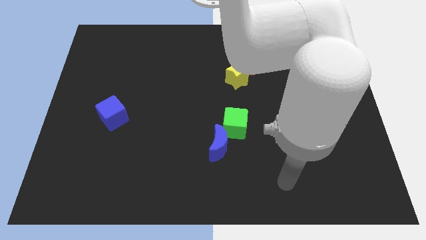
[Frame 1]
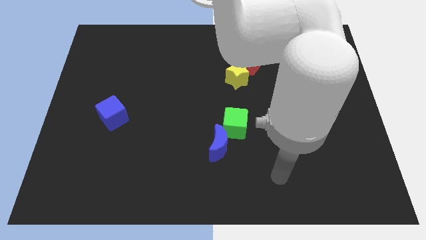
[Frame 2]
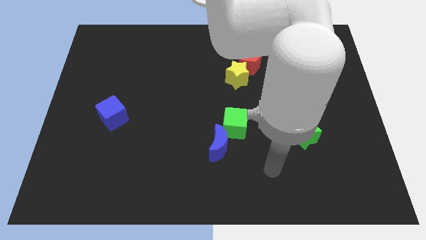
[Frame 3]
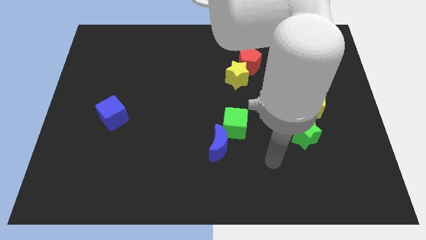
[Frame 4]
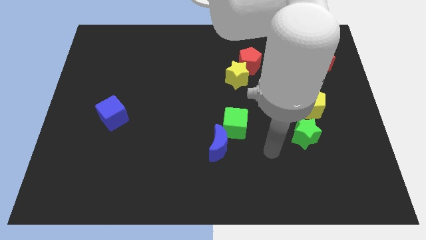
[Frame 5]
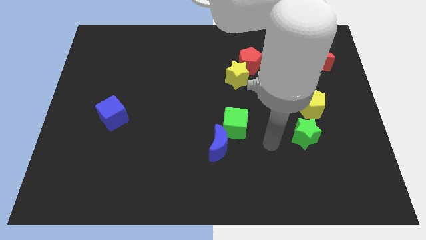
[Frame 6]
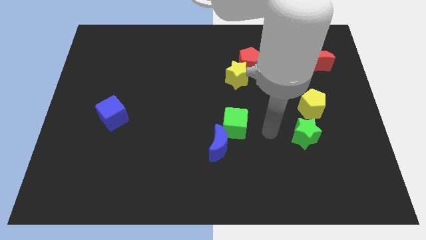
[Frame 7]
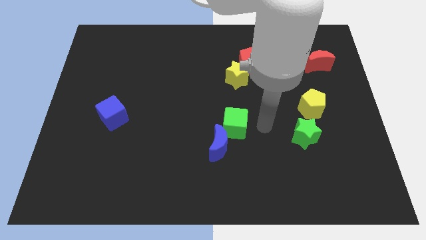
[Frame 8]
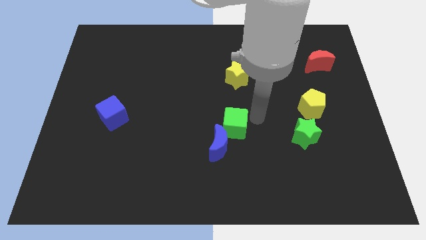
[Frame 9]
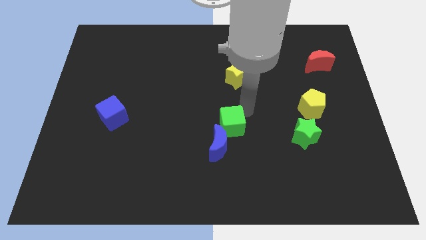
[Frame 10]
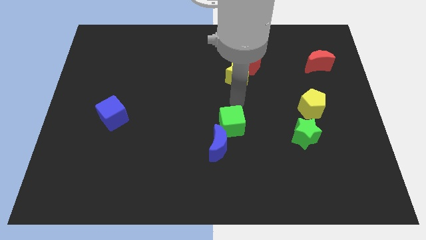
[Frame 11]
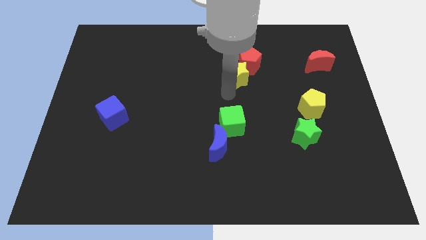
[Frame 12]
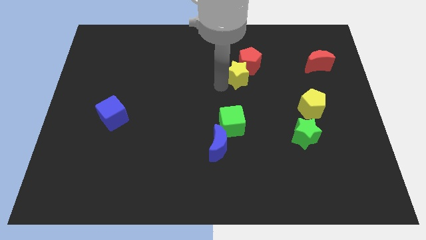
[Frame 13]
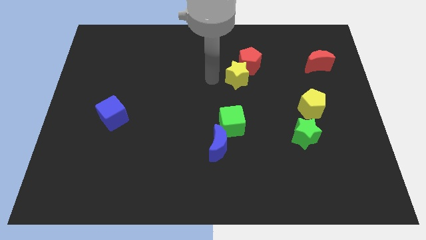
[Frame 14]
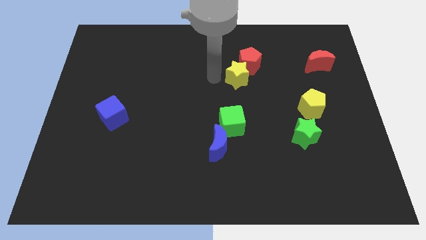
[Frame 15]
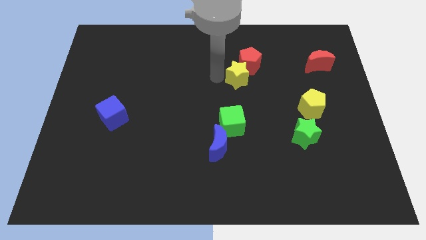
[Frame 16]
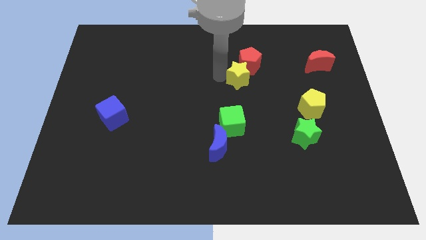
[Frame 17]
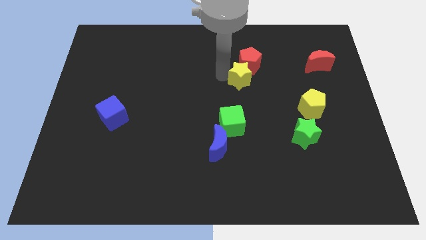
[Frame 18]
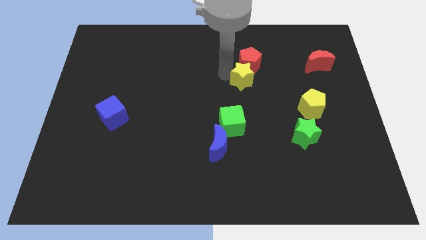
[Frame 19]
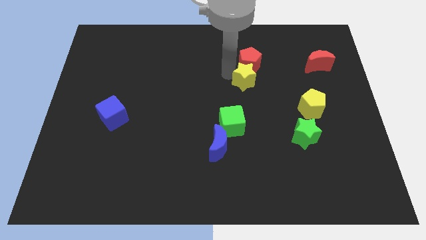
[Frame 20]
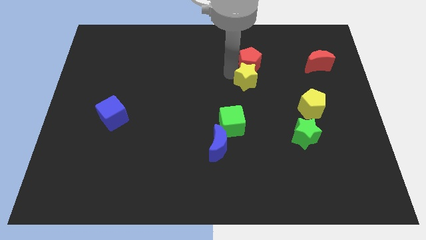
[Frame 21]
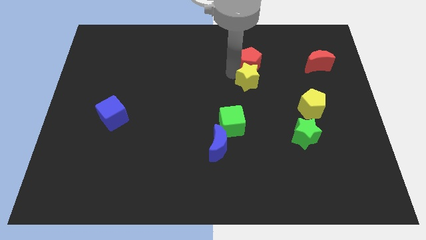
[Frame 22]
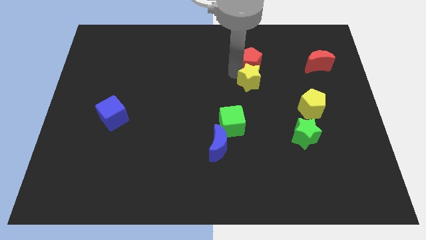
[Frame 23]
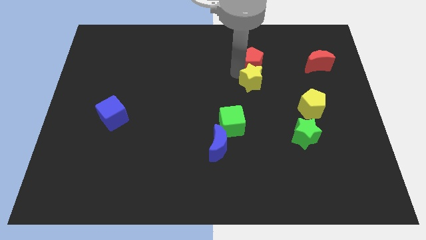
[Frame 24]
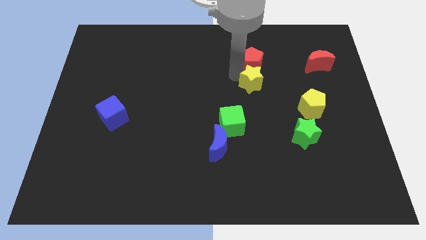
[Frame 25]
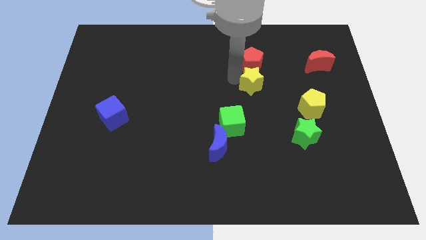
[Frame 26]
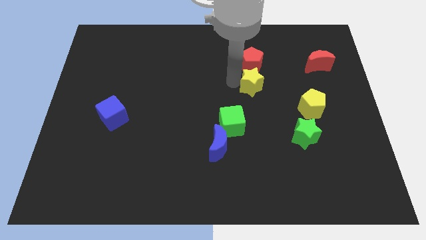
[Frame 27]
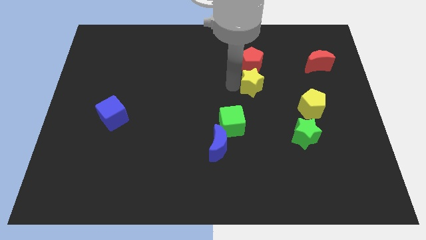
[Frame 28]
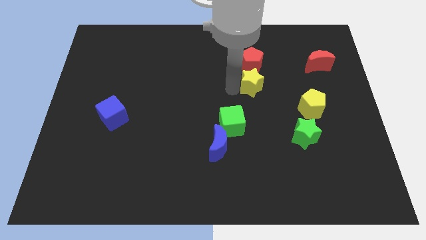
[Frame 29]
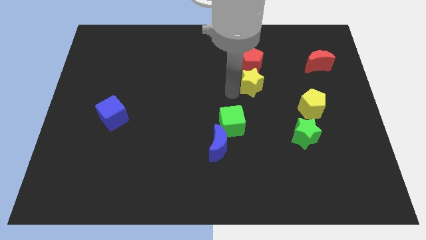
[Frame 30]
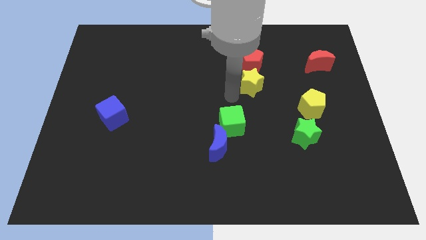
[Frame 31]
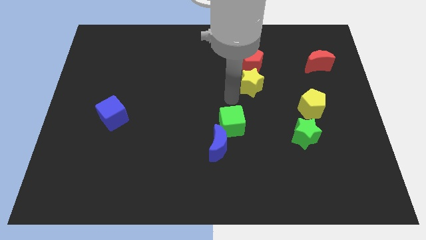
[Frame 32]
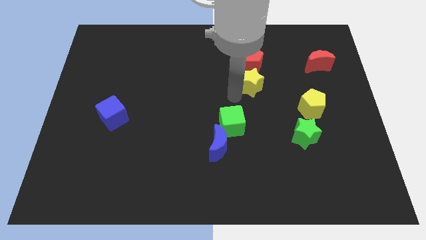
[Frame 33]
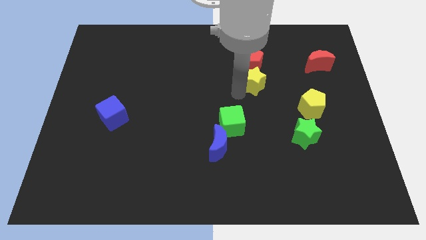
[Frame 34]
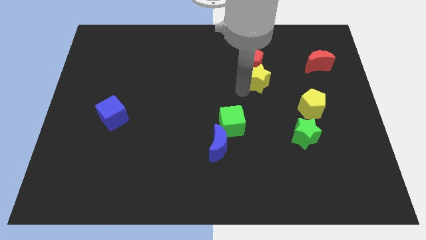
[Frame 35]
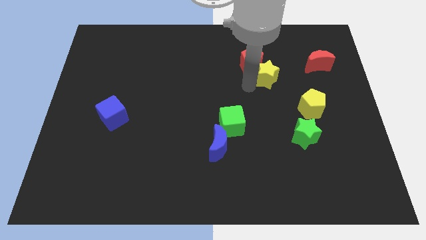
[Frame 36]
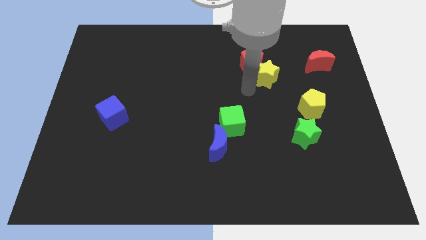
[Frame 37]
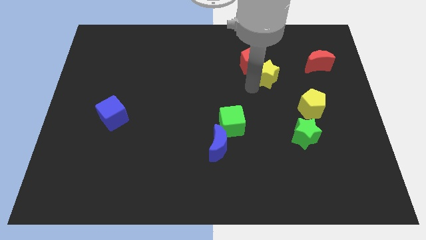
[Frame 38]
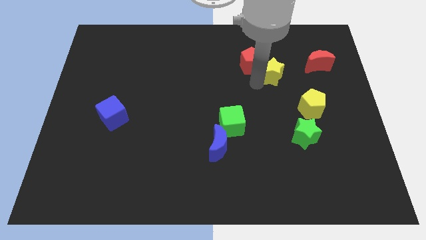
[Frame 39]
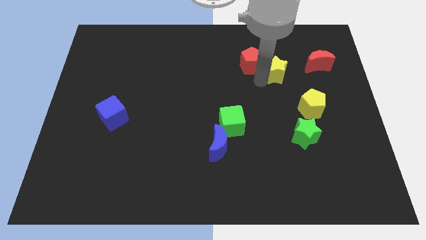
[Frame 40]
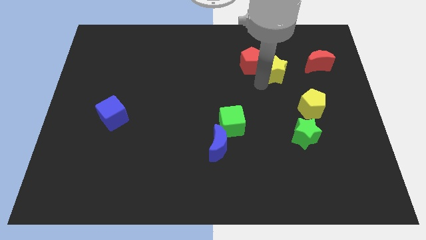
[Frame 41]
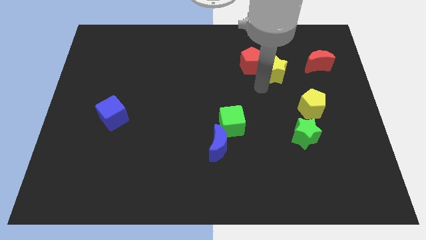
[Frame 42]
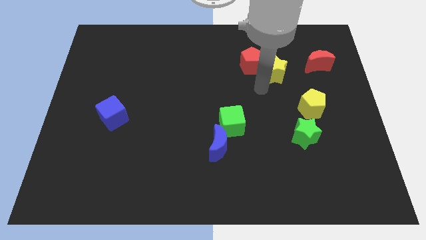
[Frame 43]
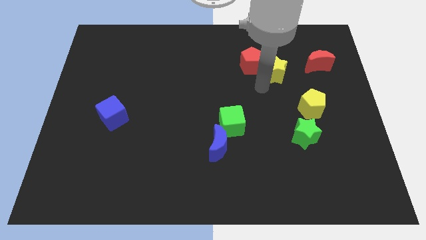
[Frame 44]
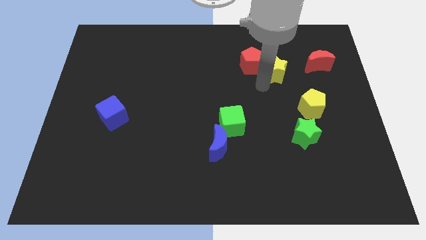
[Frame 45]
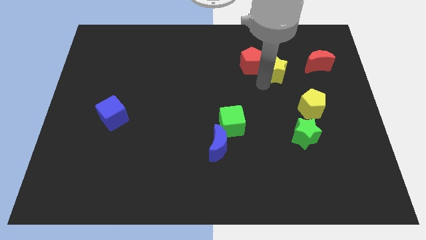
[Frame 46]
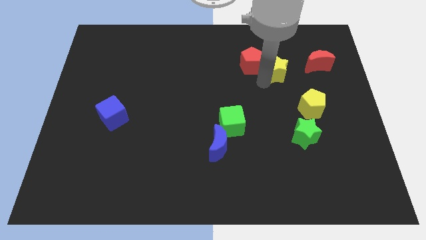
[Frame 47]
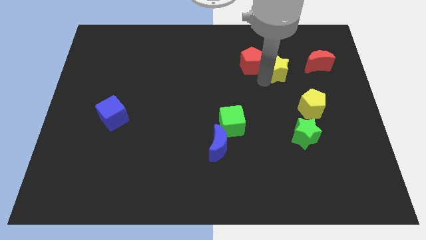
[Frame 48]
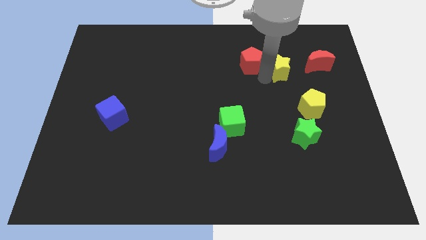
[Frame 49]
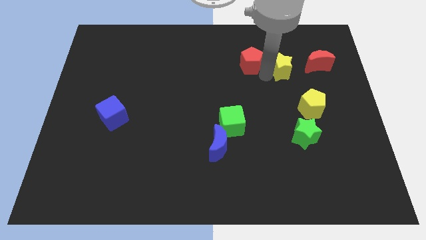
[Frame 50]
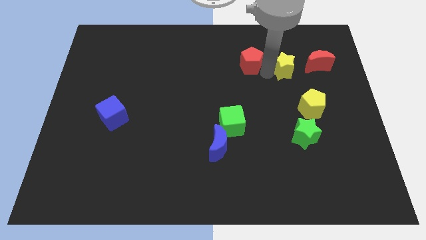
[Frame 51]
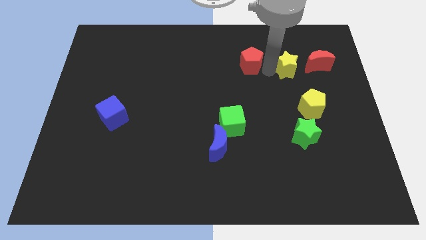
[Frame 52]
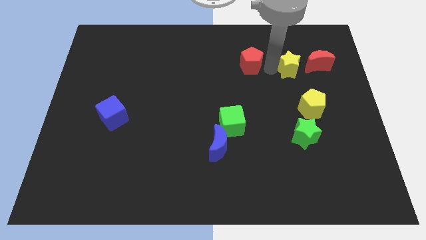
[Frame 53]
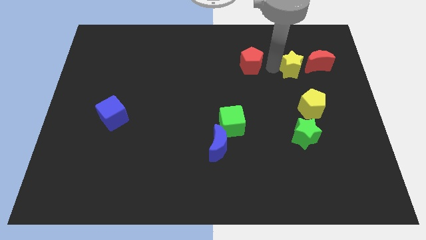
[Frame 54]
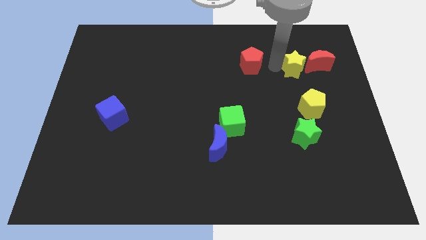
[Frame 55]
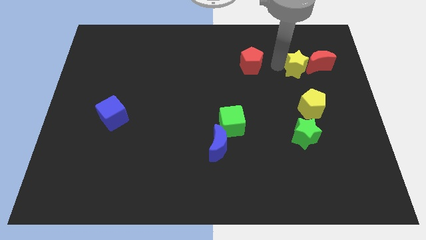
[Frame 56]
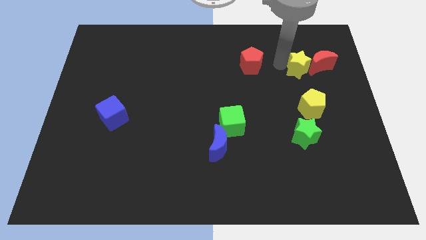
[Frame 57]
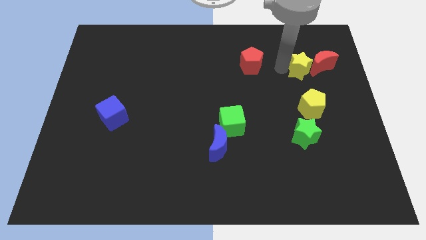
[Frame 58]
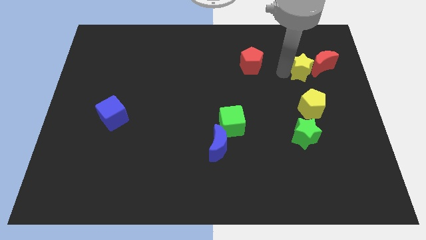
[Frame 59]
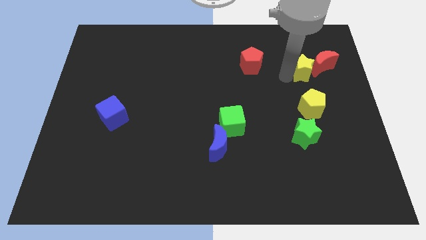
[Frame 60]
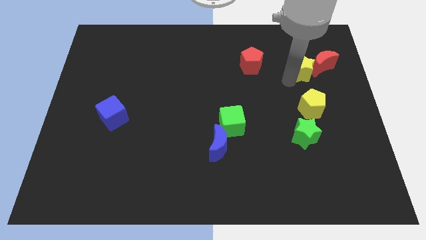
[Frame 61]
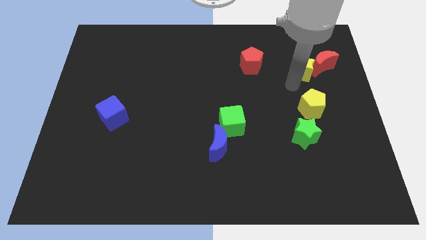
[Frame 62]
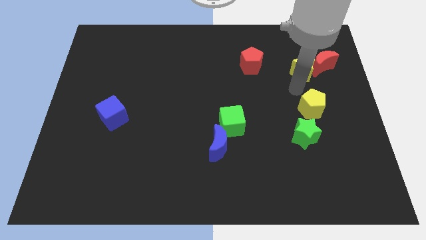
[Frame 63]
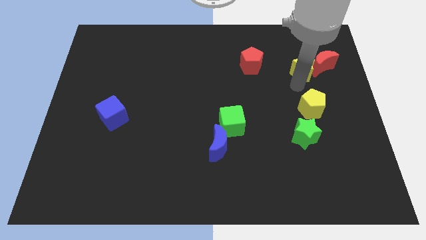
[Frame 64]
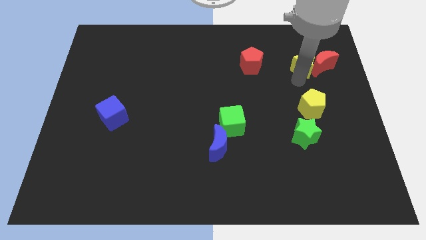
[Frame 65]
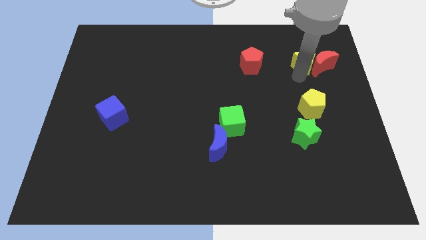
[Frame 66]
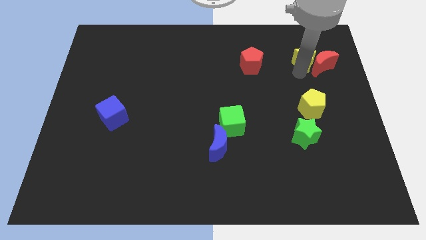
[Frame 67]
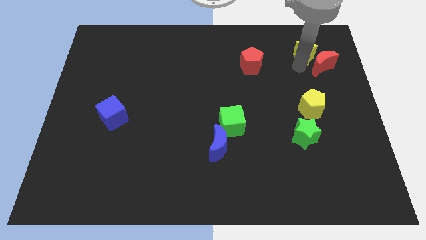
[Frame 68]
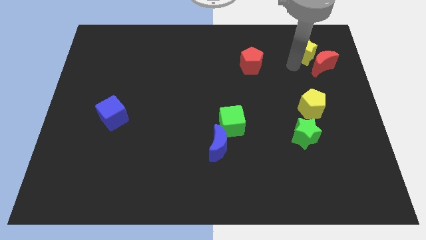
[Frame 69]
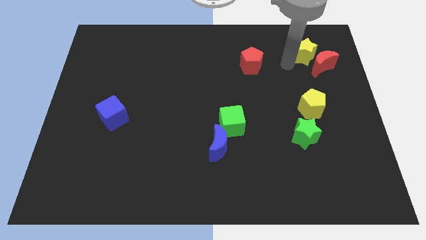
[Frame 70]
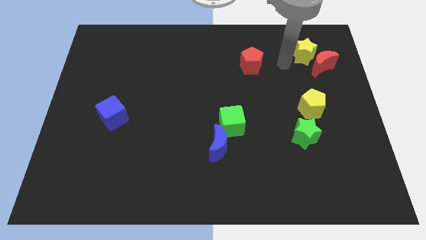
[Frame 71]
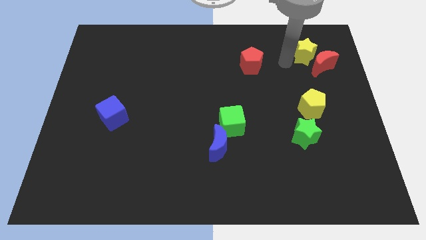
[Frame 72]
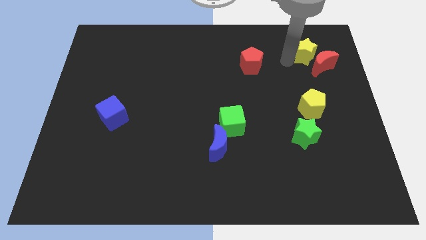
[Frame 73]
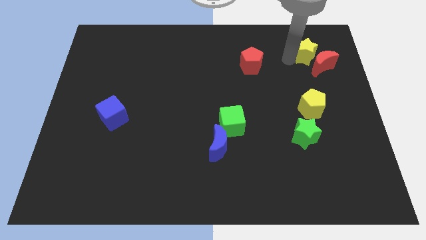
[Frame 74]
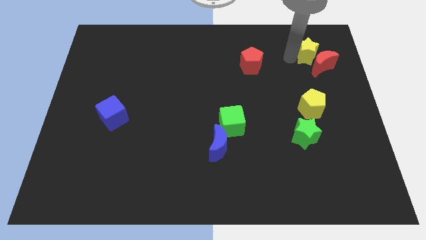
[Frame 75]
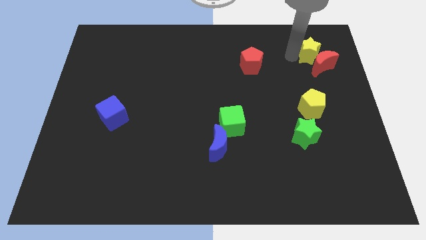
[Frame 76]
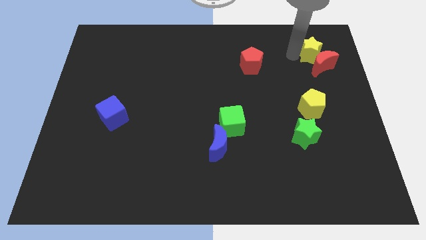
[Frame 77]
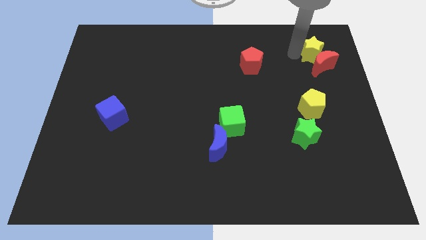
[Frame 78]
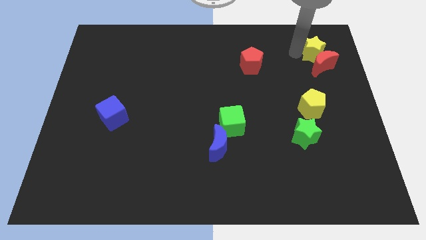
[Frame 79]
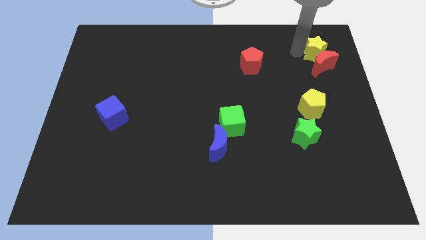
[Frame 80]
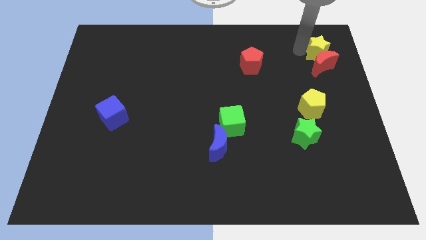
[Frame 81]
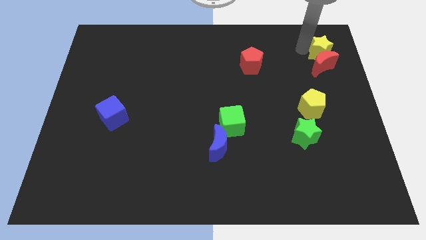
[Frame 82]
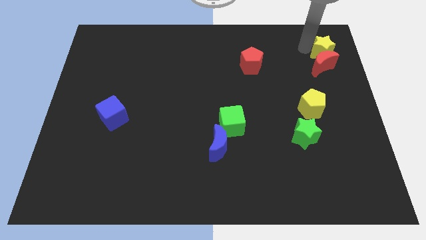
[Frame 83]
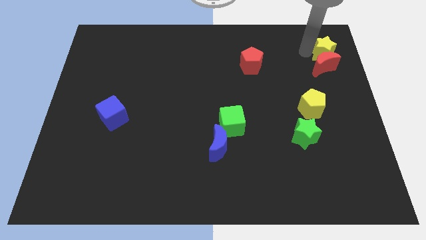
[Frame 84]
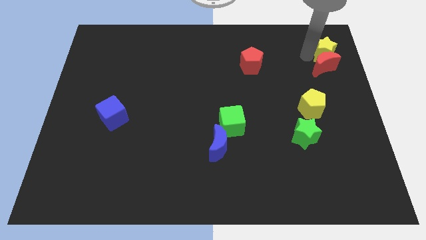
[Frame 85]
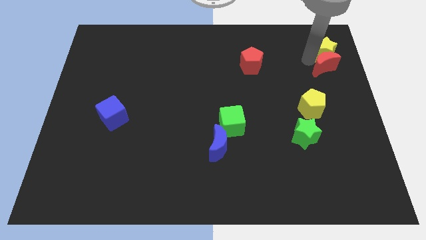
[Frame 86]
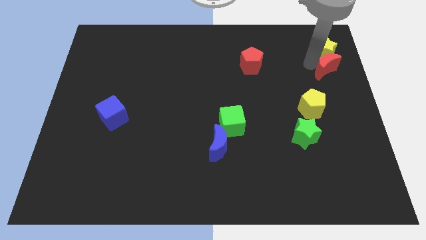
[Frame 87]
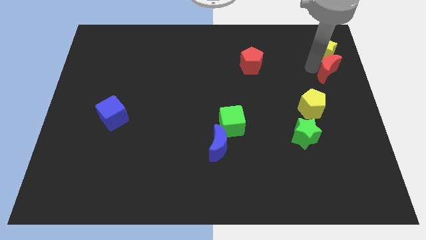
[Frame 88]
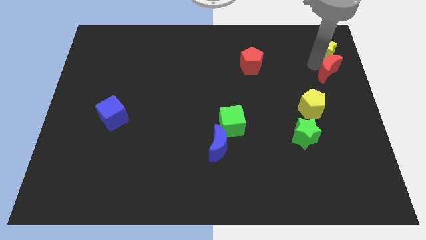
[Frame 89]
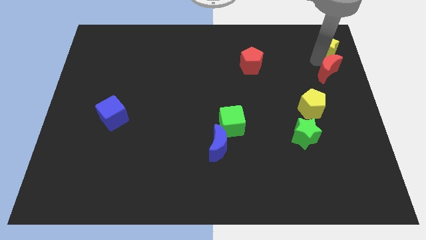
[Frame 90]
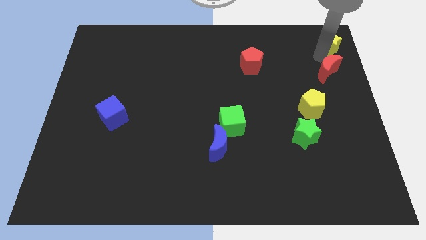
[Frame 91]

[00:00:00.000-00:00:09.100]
put the yellow star to the top right of the board
